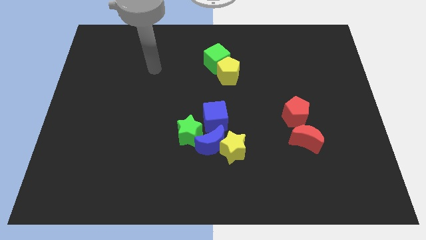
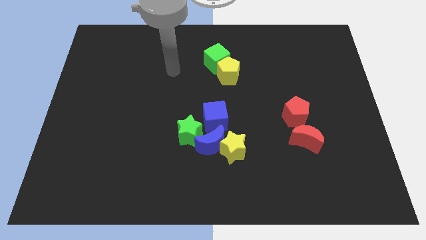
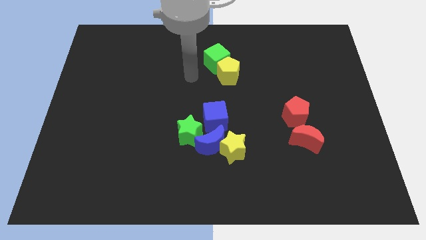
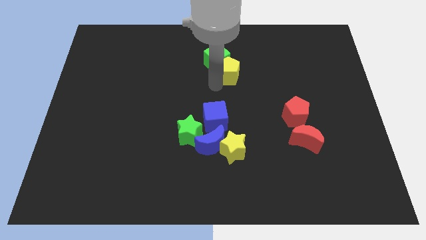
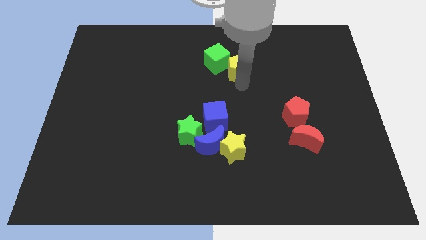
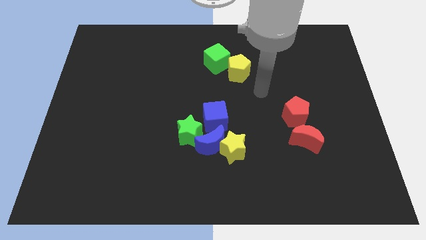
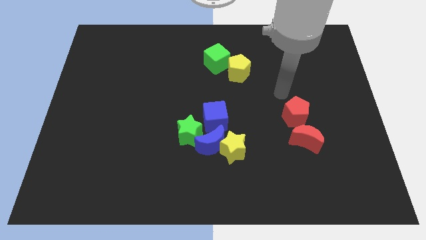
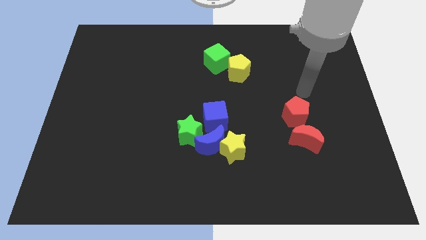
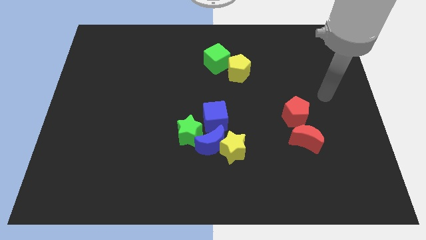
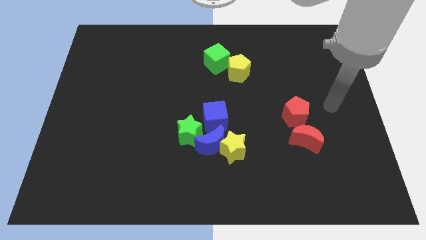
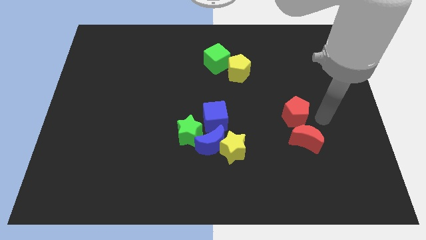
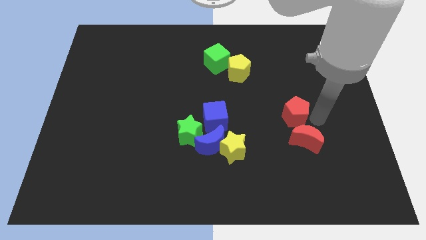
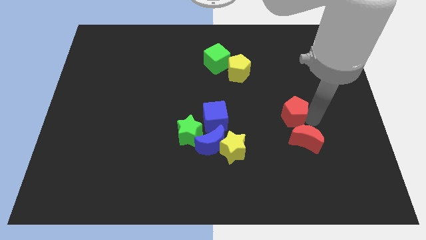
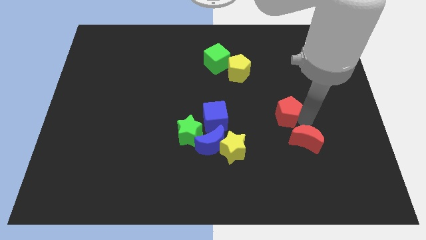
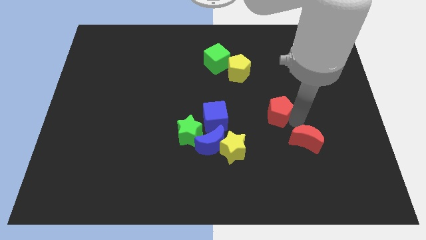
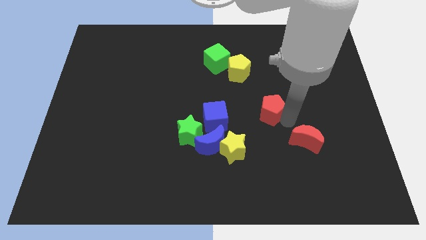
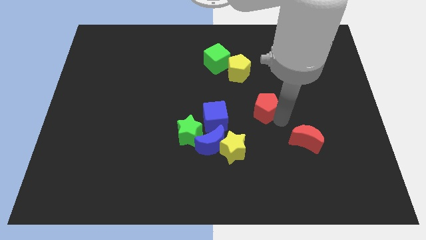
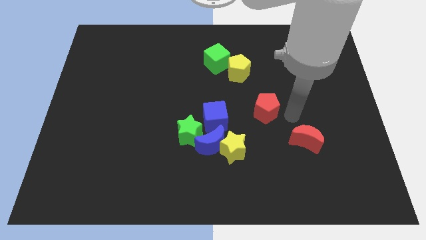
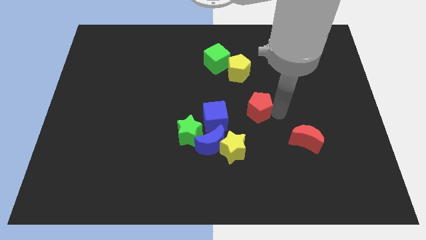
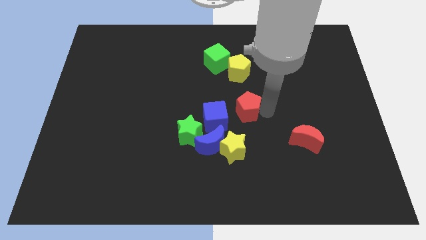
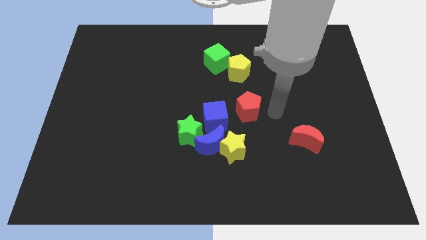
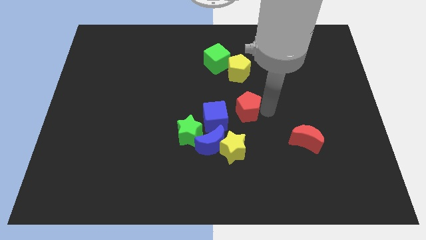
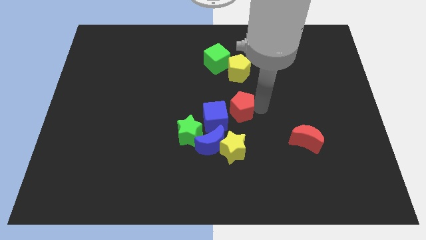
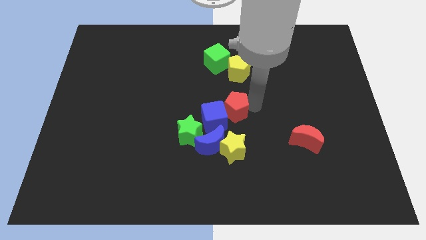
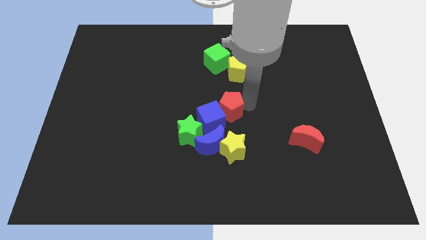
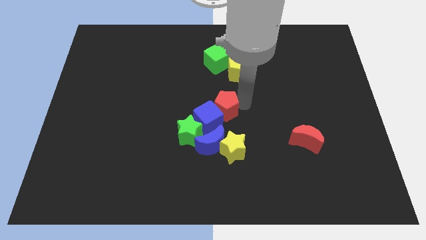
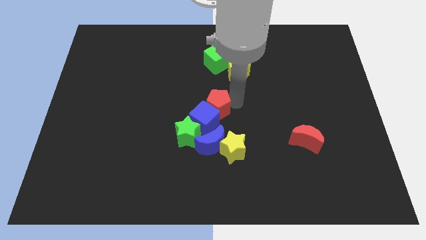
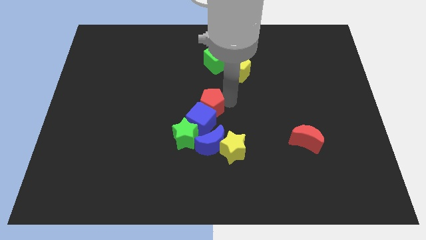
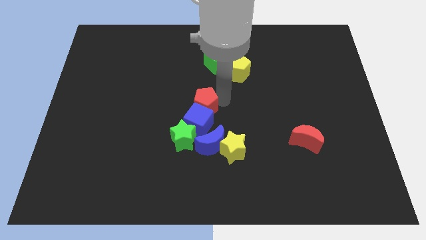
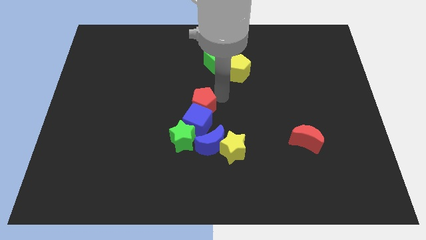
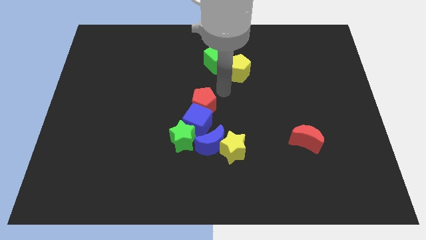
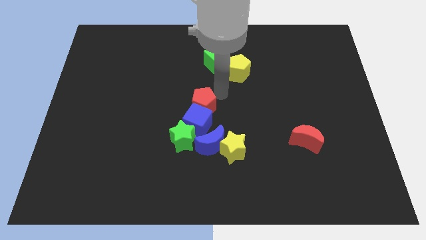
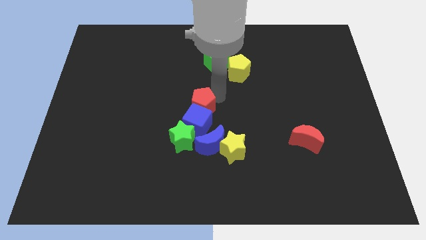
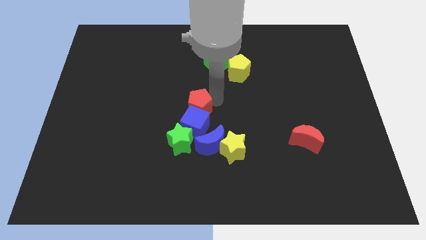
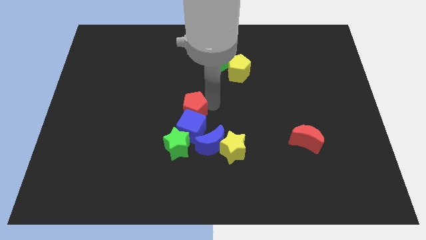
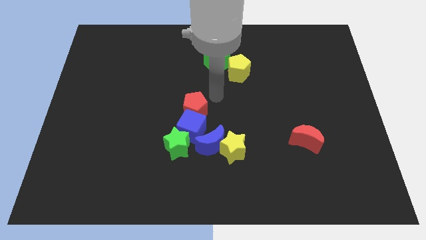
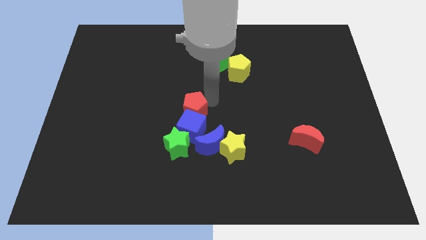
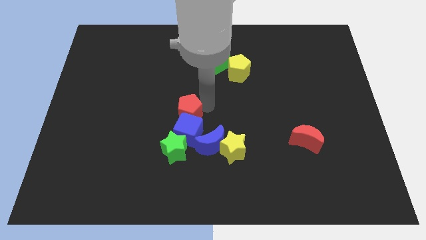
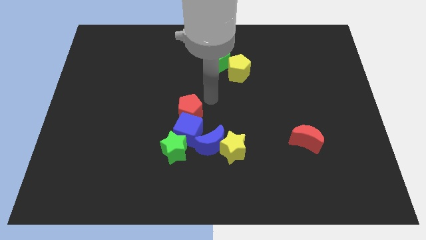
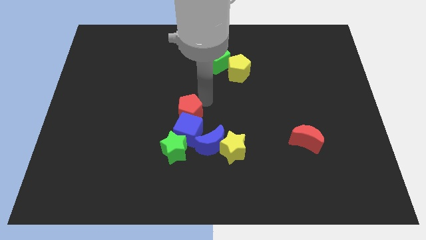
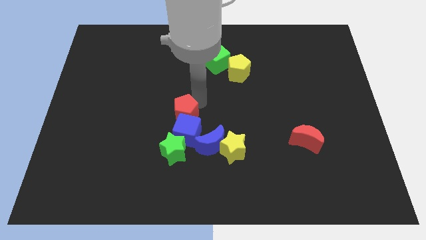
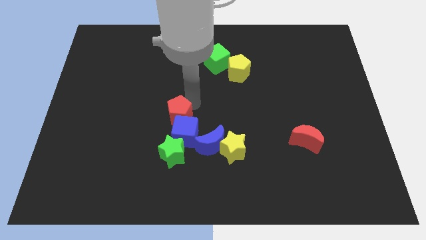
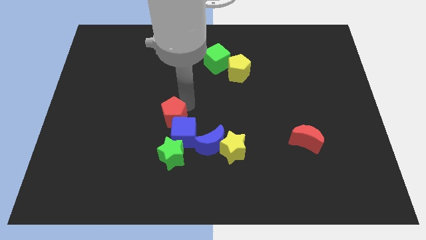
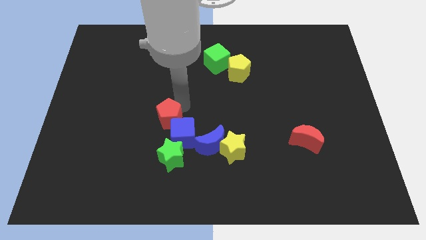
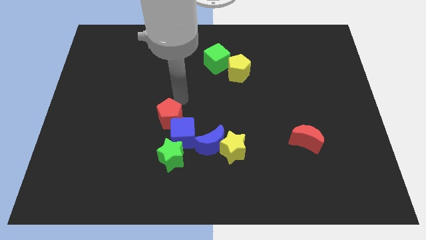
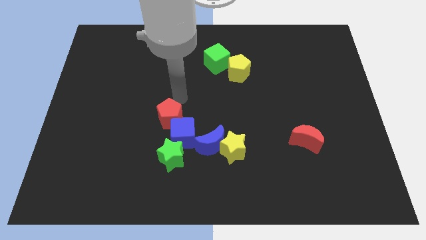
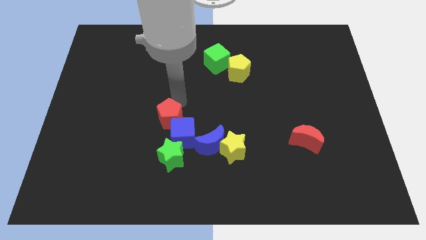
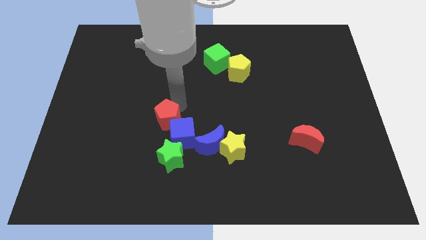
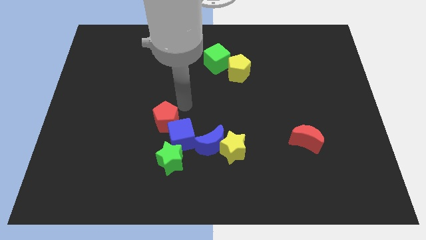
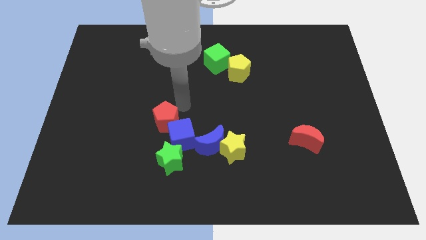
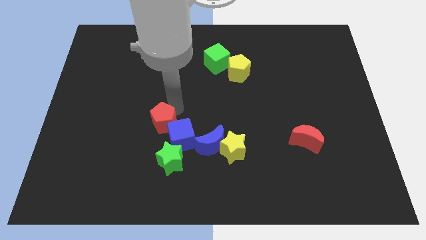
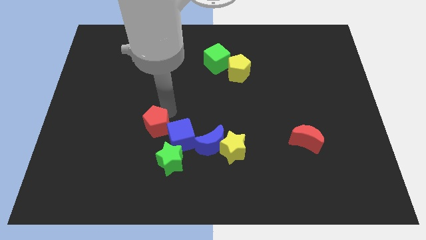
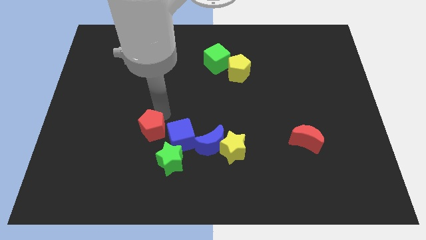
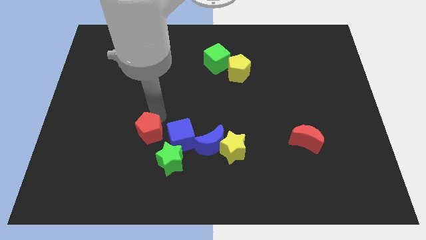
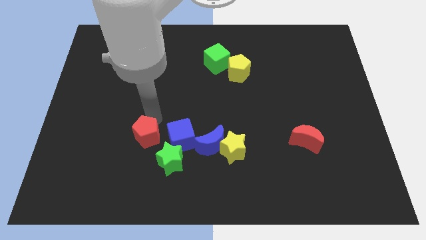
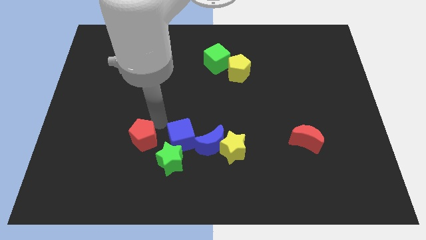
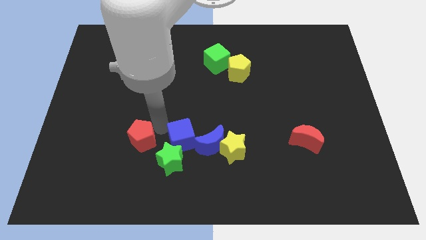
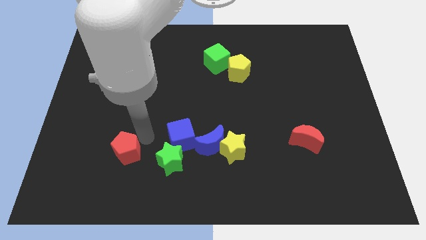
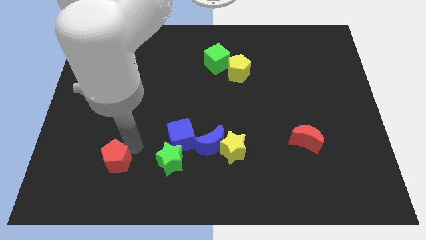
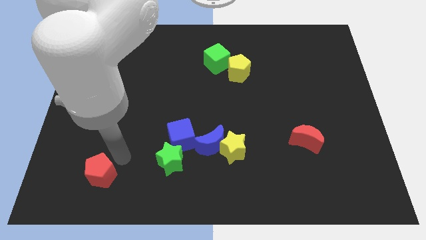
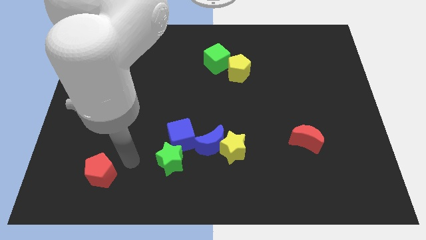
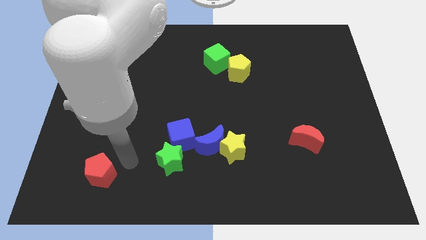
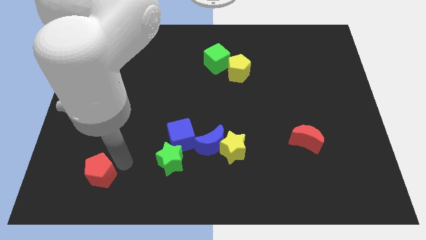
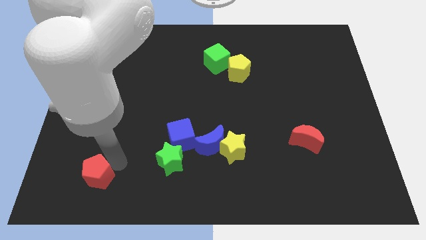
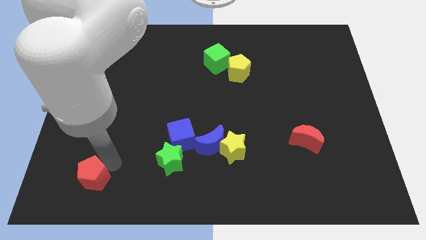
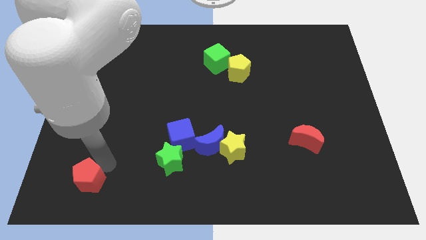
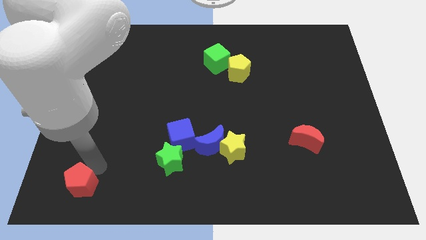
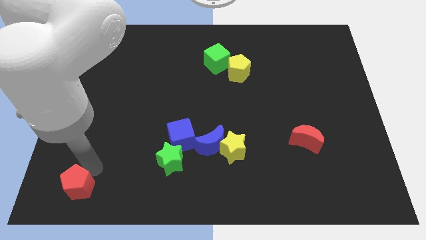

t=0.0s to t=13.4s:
push the red pentagon to the bottom left of the board

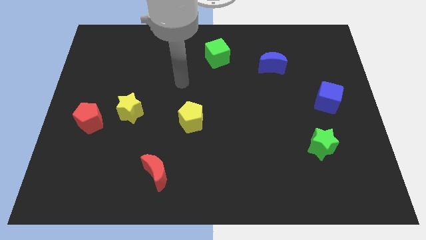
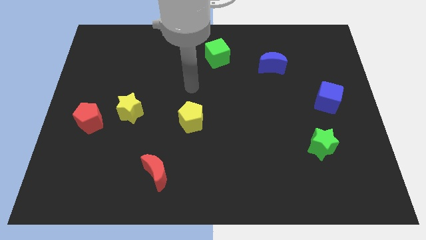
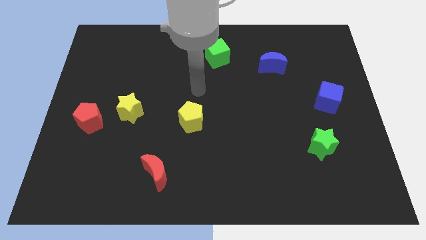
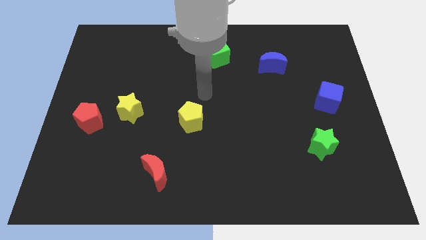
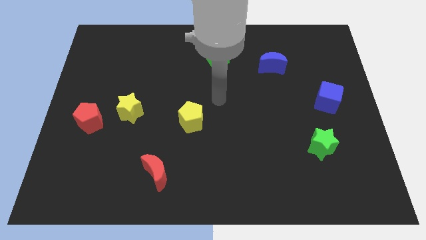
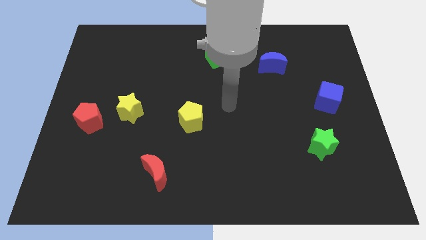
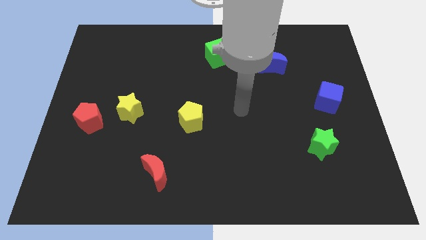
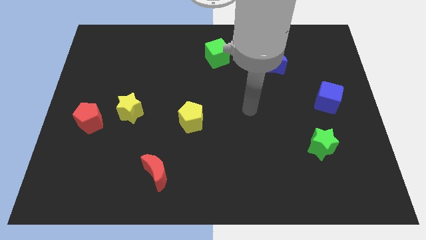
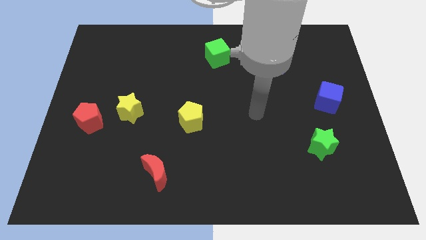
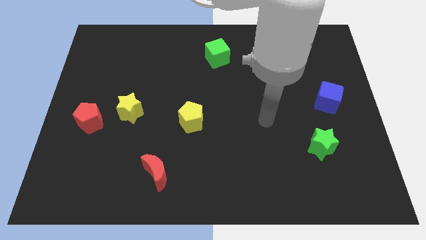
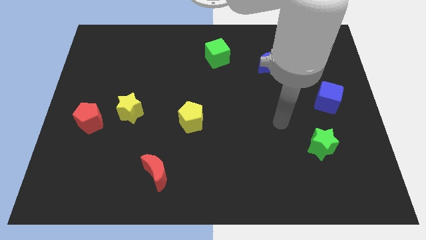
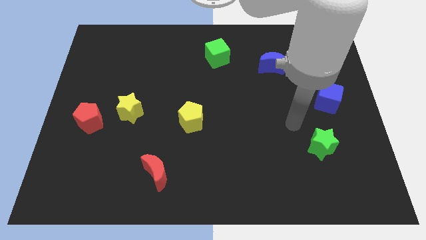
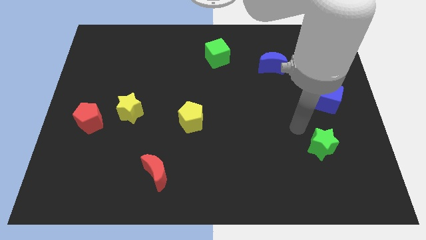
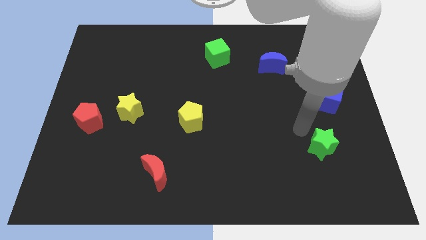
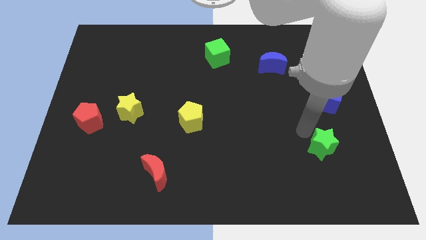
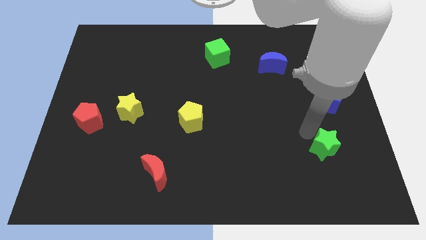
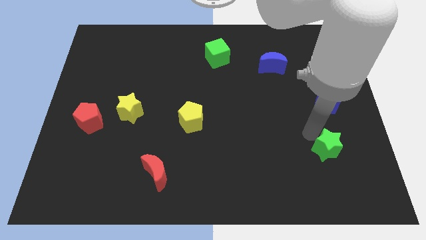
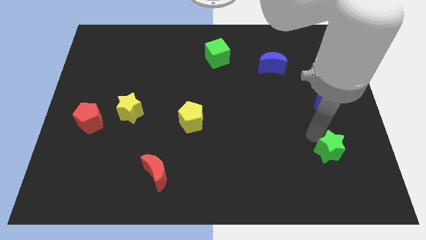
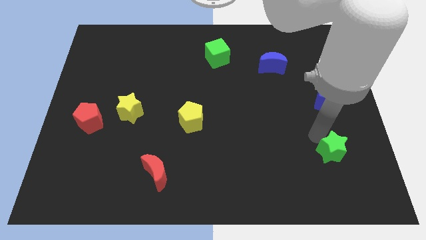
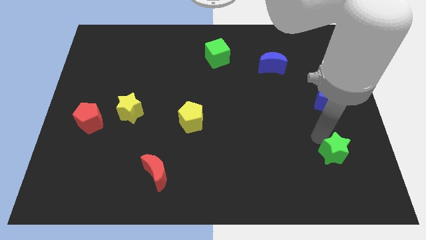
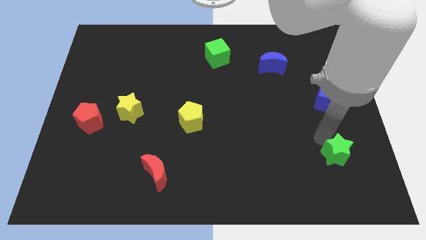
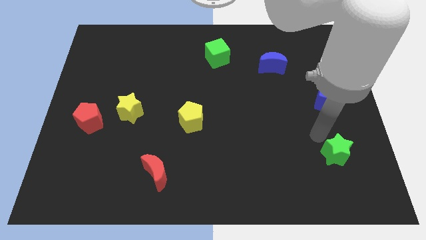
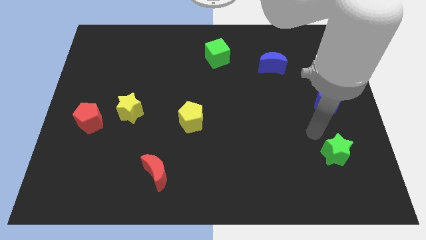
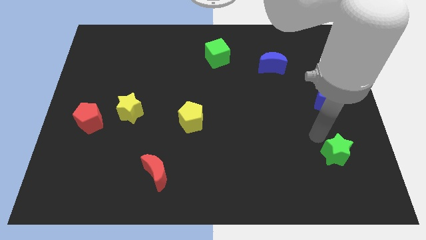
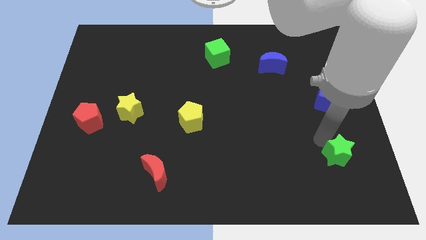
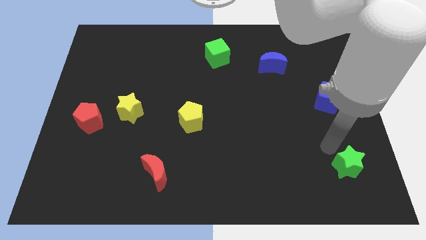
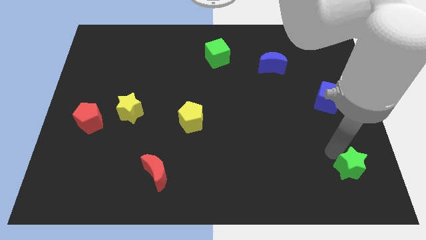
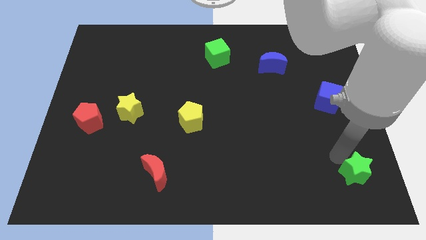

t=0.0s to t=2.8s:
push the green star to the bottom right
